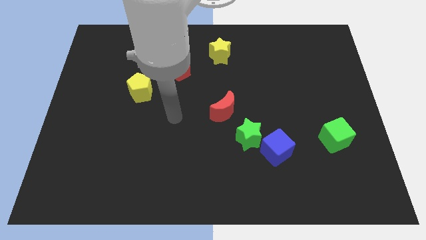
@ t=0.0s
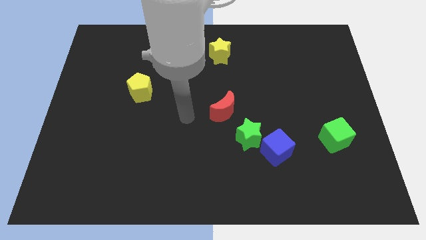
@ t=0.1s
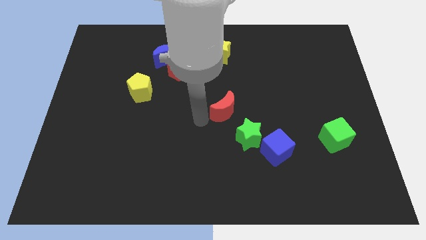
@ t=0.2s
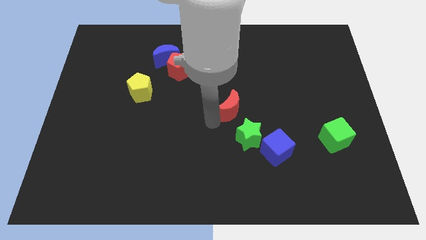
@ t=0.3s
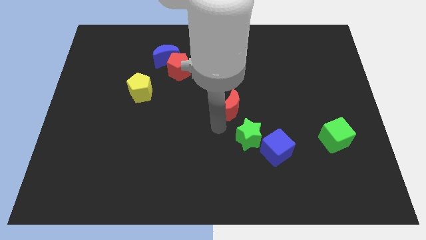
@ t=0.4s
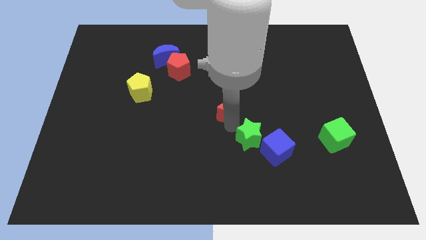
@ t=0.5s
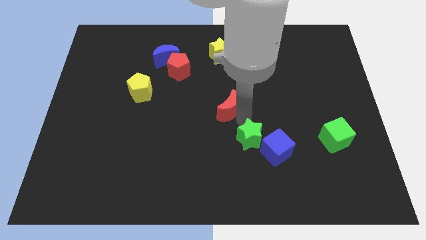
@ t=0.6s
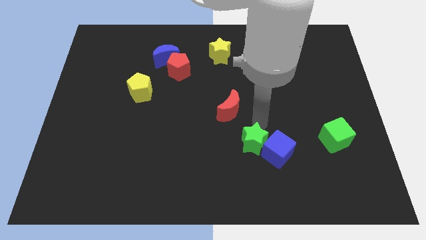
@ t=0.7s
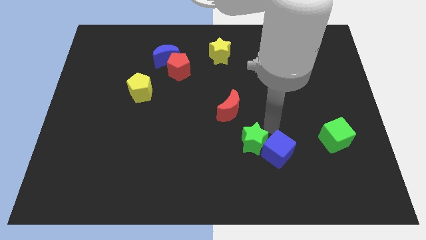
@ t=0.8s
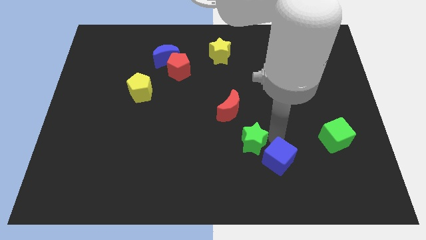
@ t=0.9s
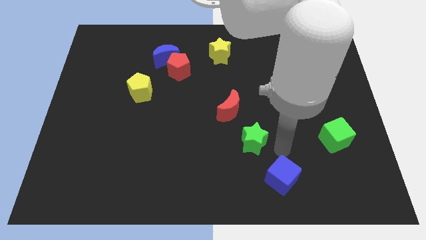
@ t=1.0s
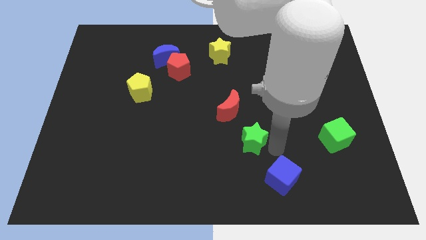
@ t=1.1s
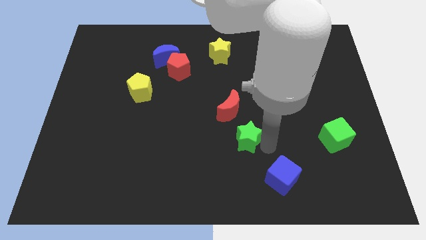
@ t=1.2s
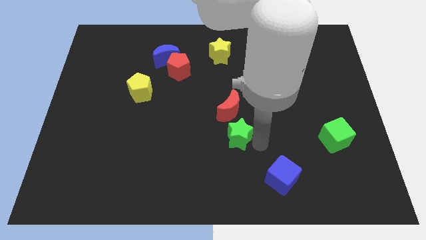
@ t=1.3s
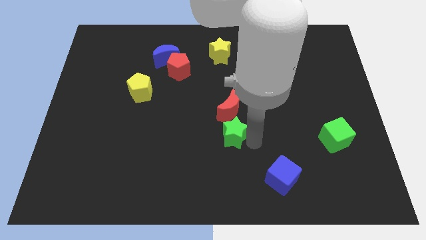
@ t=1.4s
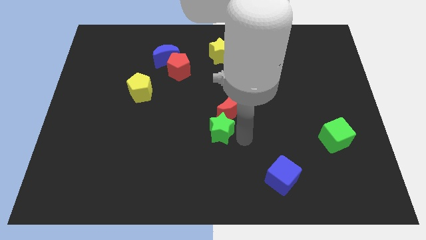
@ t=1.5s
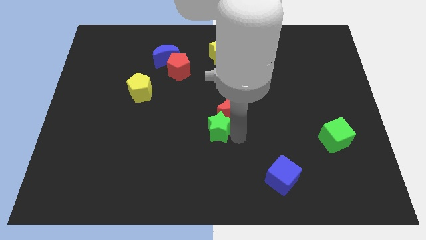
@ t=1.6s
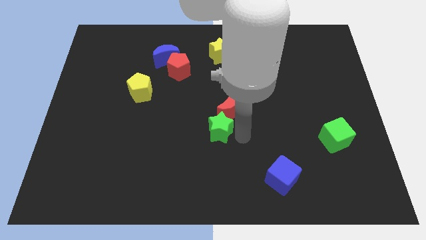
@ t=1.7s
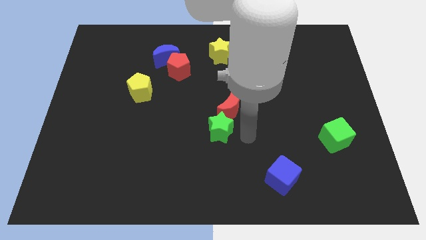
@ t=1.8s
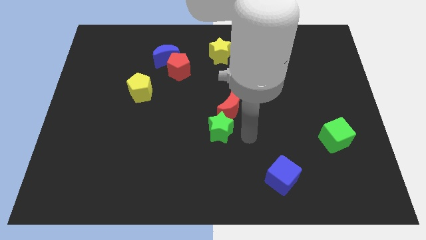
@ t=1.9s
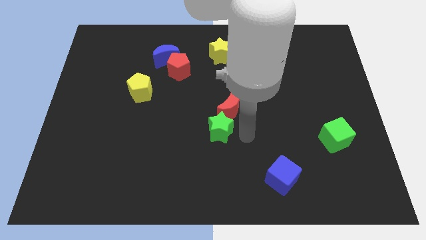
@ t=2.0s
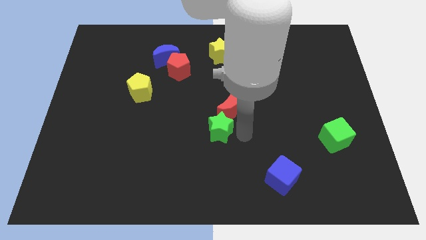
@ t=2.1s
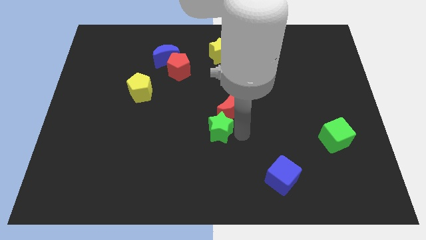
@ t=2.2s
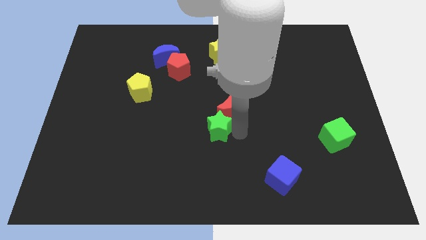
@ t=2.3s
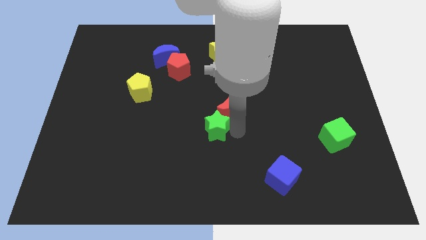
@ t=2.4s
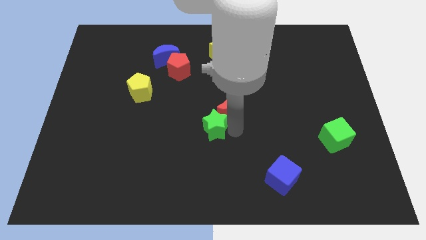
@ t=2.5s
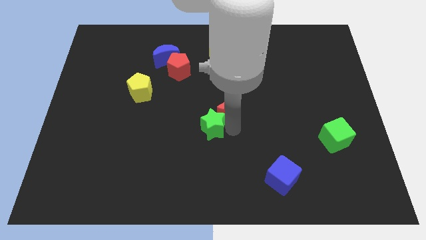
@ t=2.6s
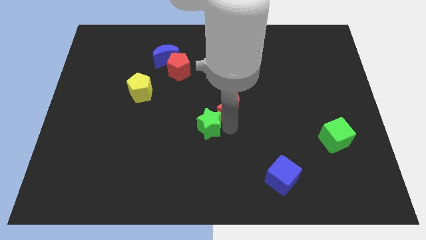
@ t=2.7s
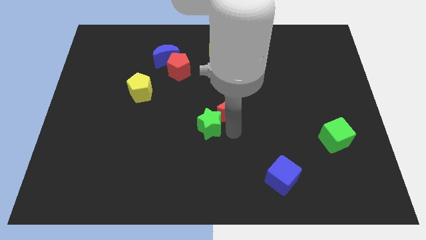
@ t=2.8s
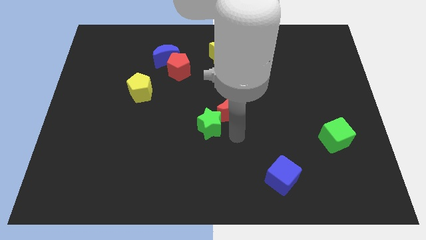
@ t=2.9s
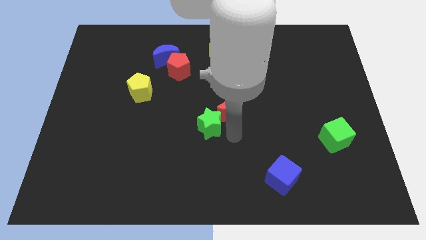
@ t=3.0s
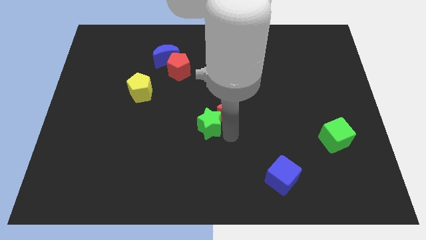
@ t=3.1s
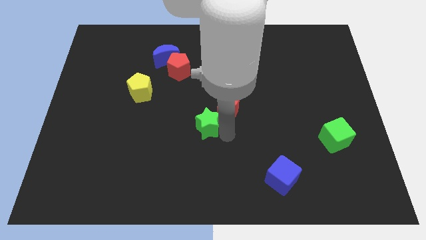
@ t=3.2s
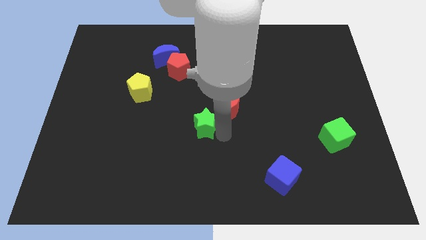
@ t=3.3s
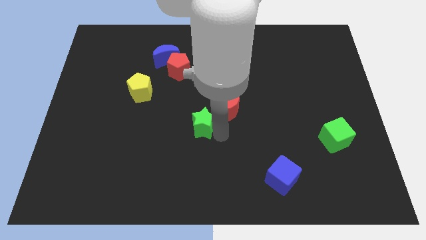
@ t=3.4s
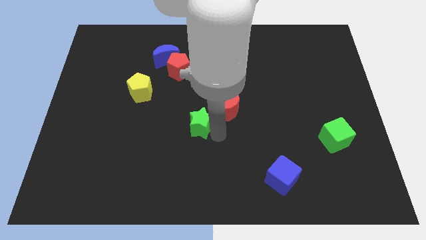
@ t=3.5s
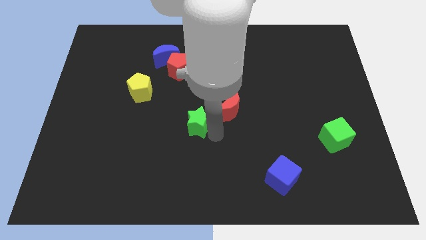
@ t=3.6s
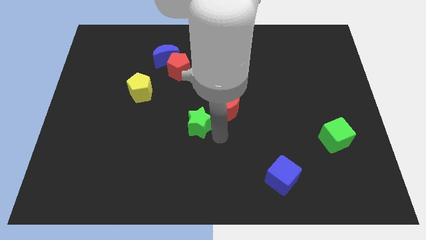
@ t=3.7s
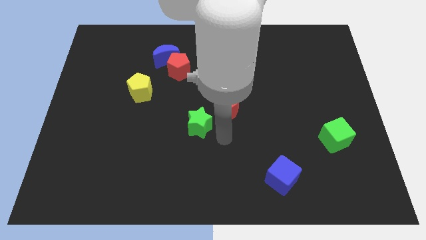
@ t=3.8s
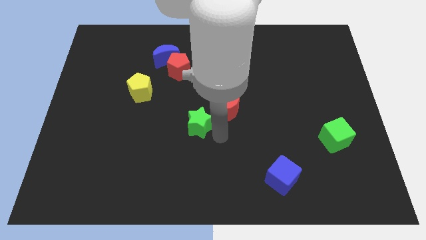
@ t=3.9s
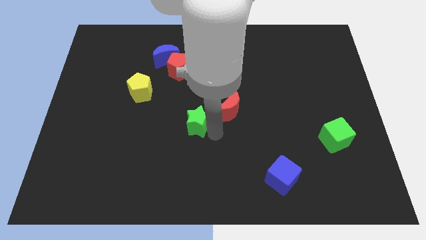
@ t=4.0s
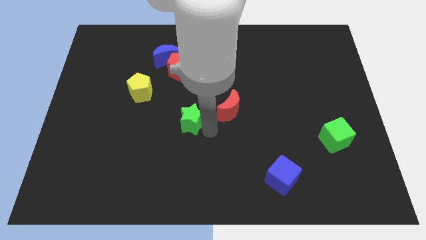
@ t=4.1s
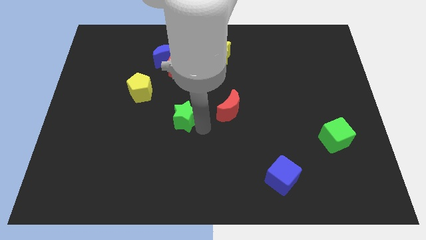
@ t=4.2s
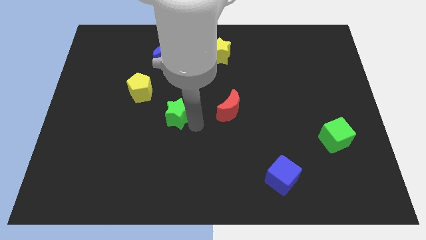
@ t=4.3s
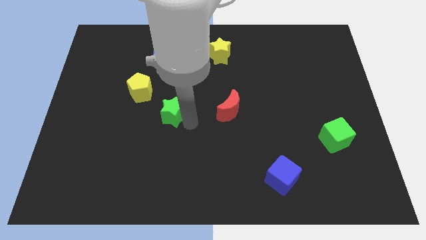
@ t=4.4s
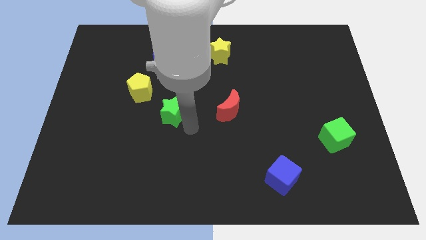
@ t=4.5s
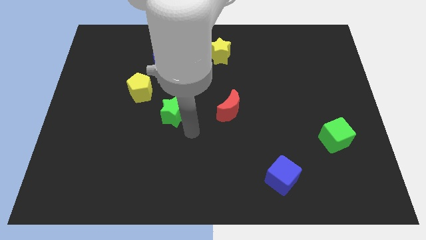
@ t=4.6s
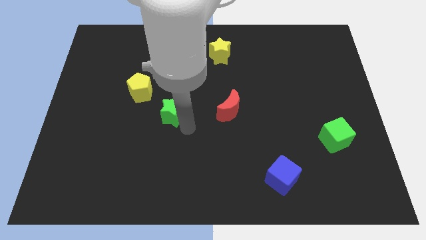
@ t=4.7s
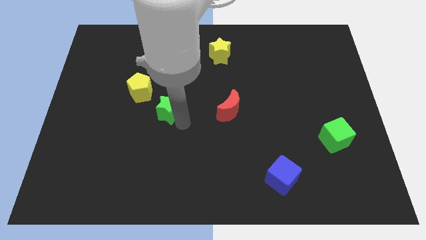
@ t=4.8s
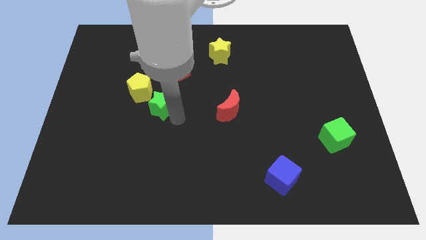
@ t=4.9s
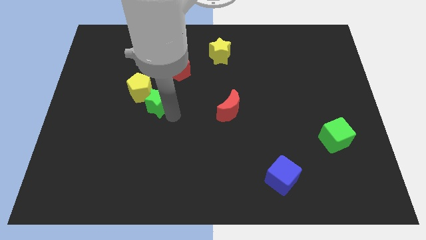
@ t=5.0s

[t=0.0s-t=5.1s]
slide the green star close to the yellow pentagon

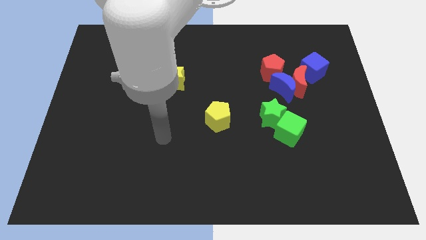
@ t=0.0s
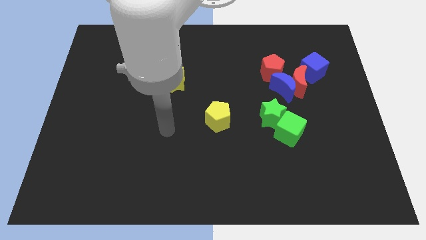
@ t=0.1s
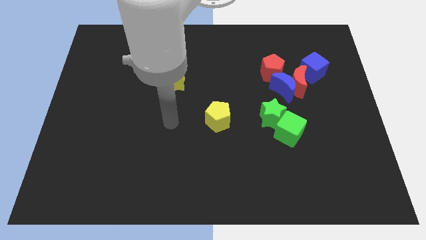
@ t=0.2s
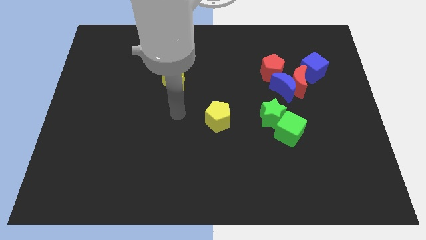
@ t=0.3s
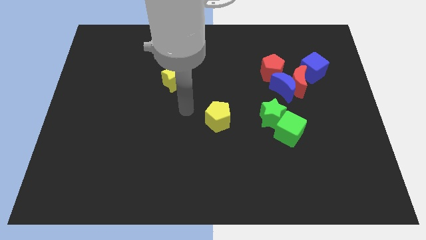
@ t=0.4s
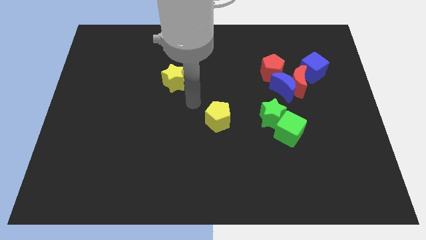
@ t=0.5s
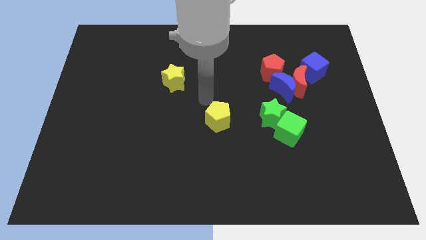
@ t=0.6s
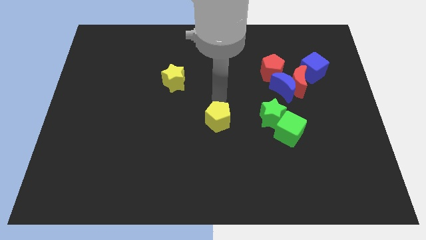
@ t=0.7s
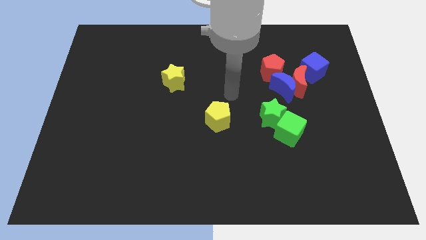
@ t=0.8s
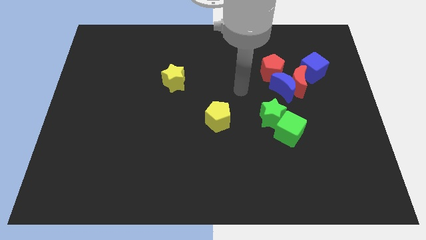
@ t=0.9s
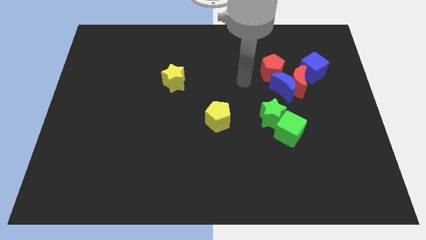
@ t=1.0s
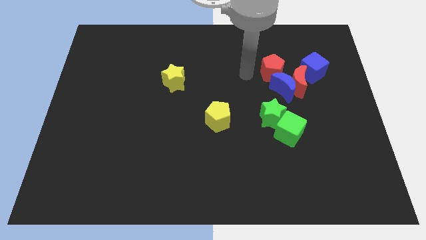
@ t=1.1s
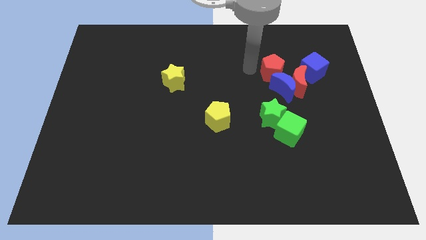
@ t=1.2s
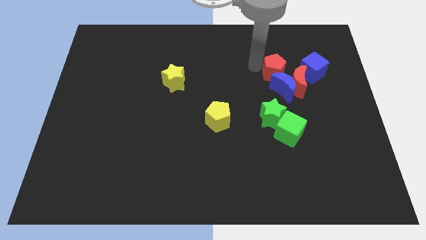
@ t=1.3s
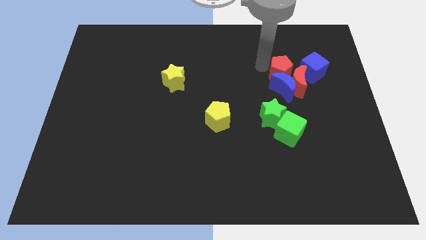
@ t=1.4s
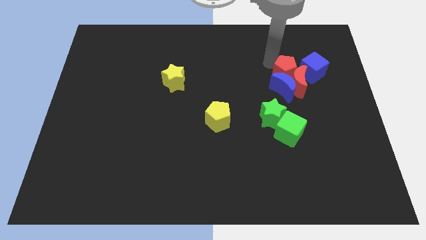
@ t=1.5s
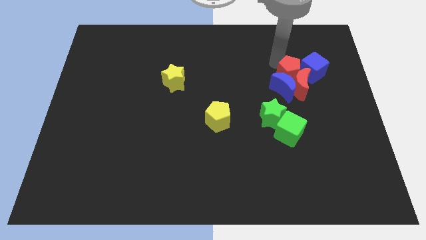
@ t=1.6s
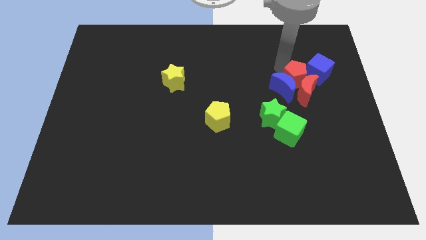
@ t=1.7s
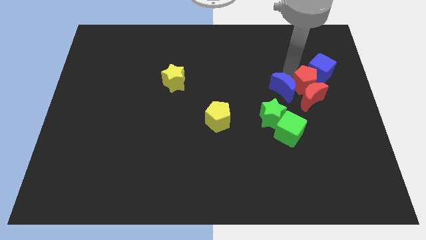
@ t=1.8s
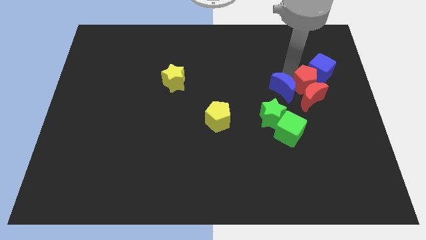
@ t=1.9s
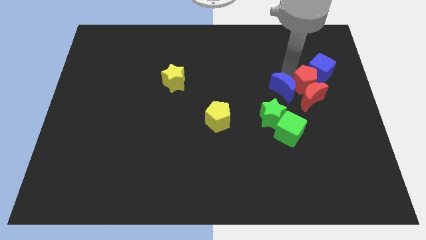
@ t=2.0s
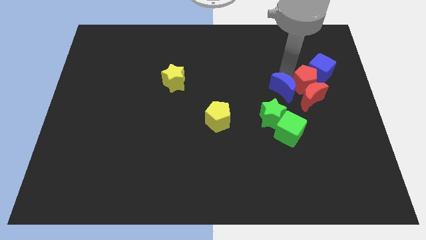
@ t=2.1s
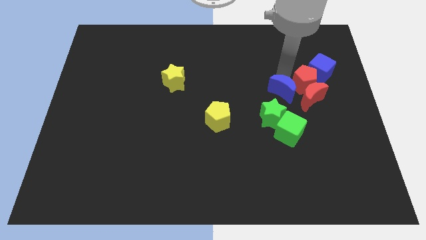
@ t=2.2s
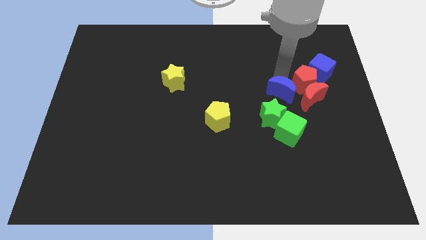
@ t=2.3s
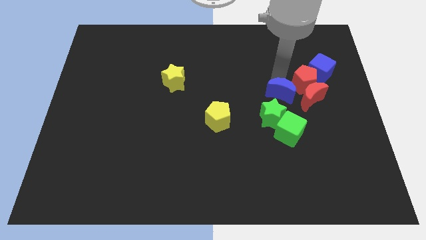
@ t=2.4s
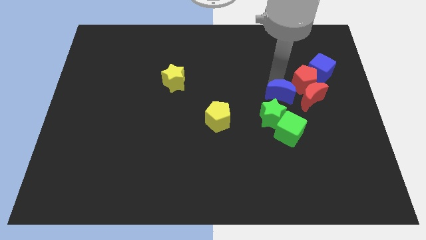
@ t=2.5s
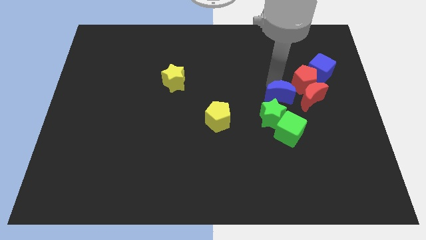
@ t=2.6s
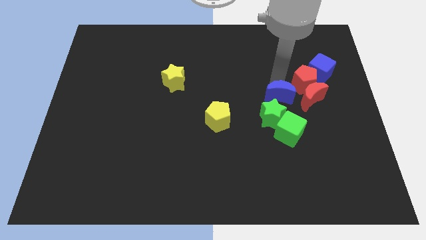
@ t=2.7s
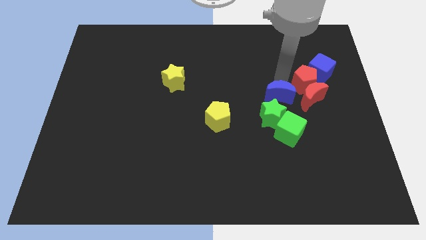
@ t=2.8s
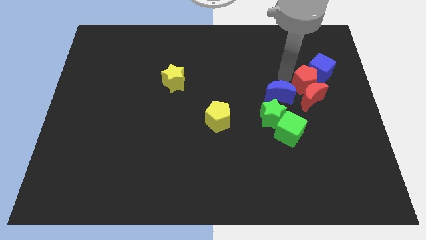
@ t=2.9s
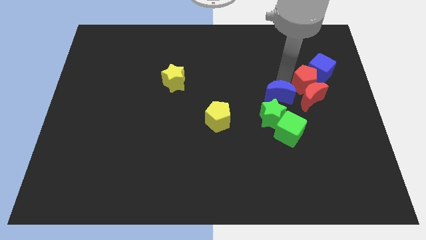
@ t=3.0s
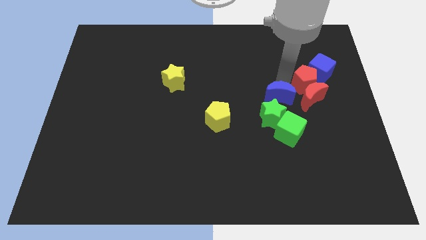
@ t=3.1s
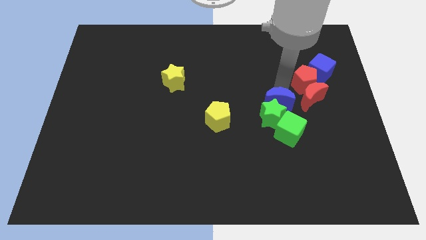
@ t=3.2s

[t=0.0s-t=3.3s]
slide the blue moon to the green star
